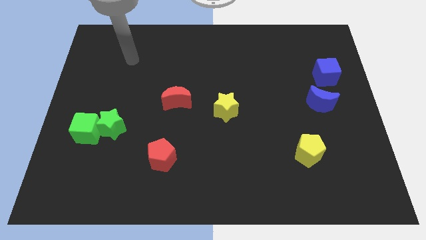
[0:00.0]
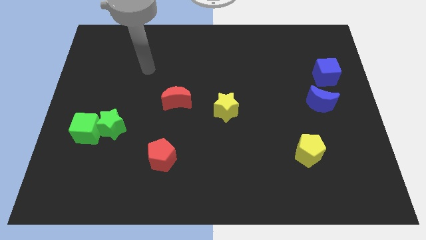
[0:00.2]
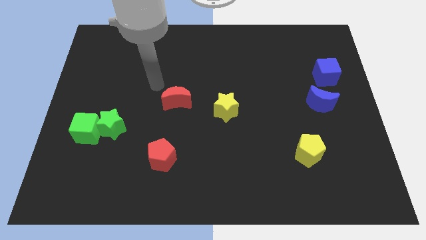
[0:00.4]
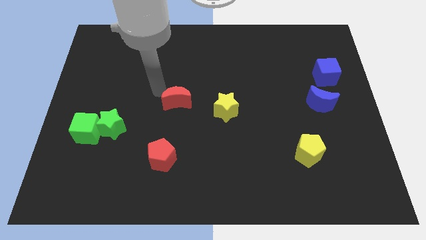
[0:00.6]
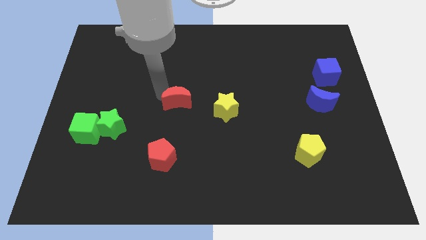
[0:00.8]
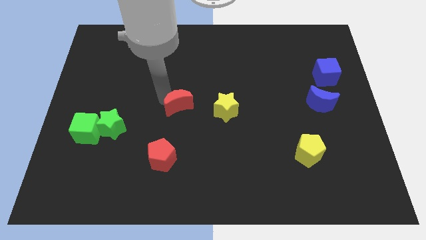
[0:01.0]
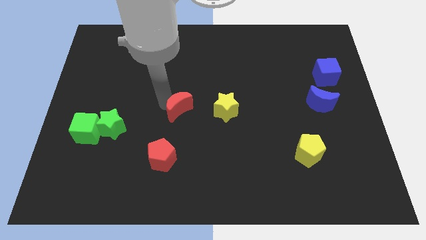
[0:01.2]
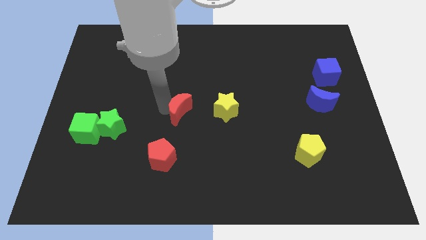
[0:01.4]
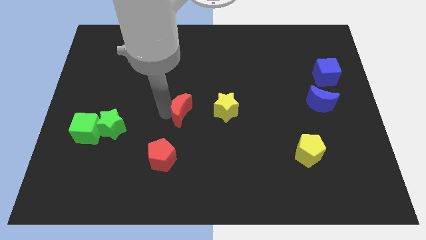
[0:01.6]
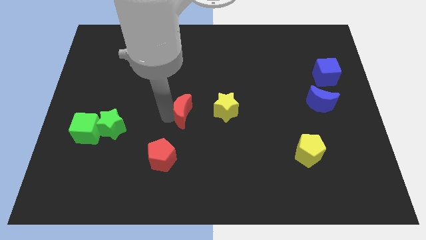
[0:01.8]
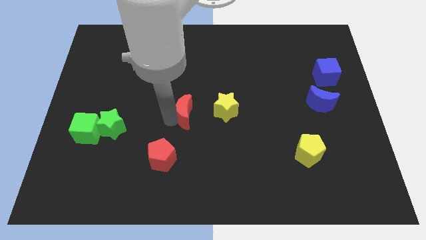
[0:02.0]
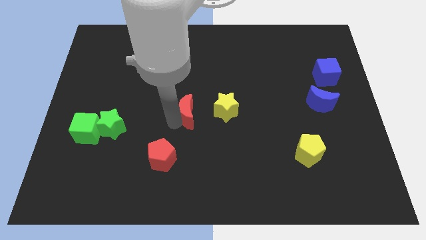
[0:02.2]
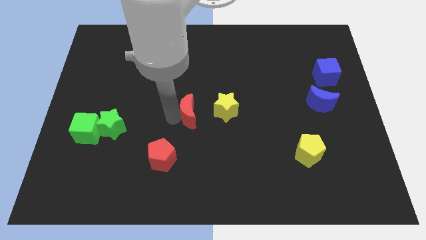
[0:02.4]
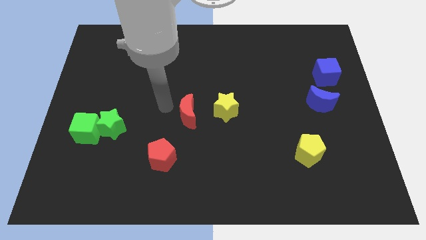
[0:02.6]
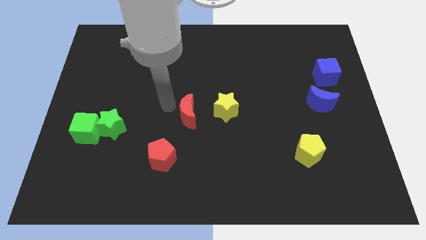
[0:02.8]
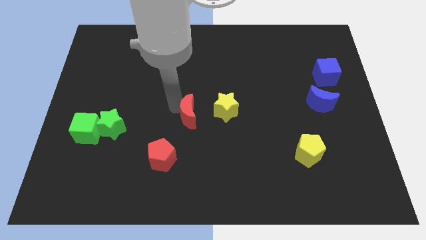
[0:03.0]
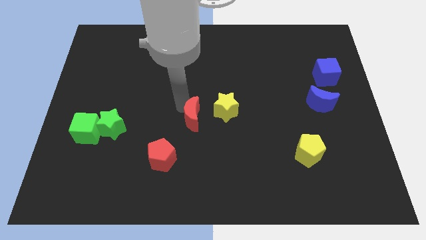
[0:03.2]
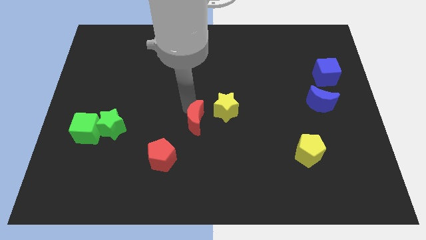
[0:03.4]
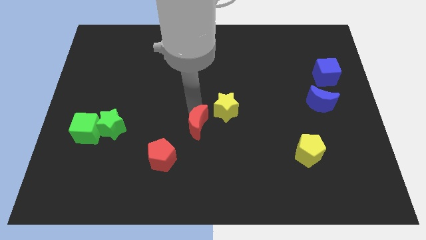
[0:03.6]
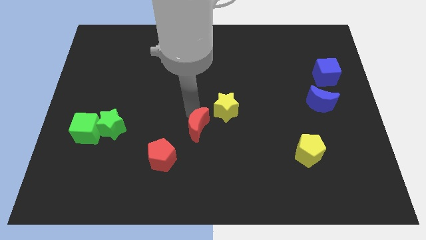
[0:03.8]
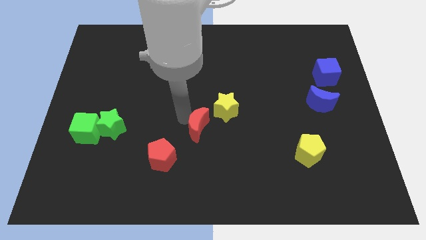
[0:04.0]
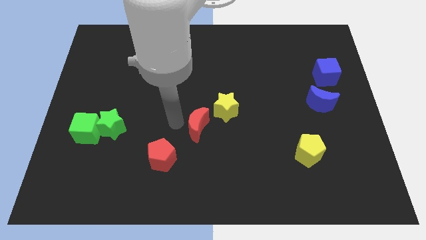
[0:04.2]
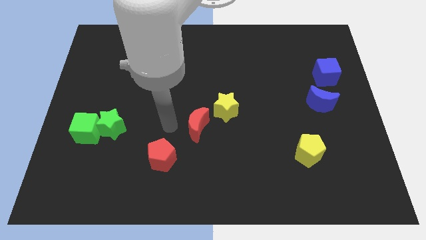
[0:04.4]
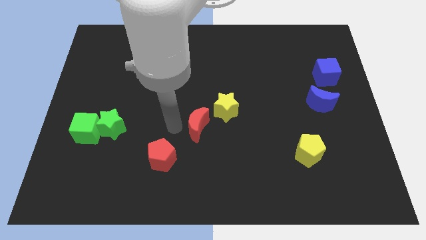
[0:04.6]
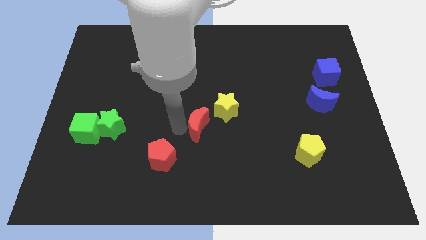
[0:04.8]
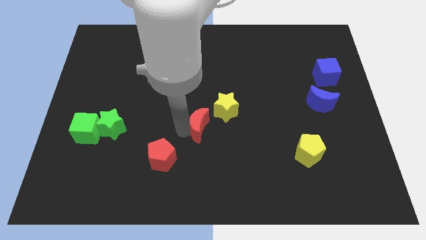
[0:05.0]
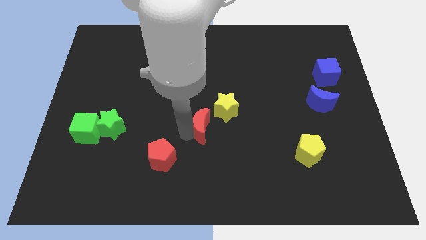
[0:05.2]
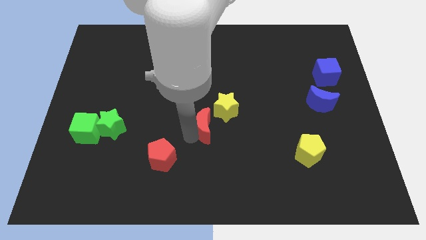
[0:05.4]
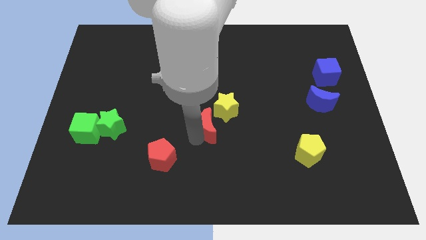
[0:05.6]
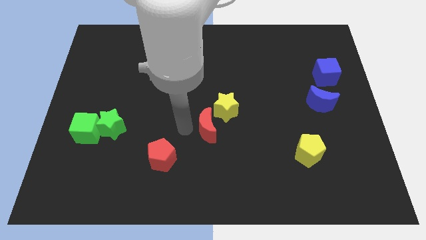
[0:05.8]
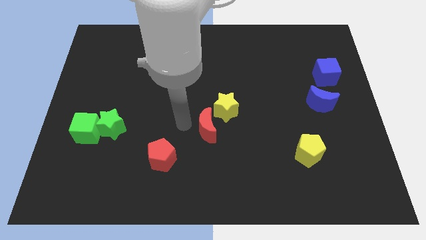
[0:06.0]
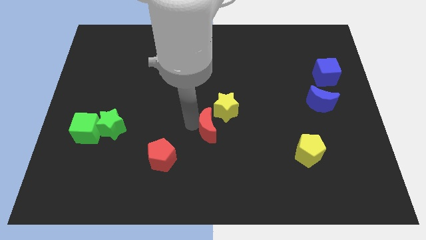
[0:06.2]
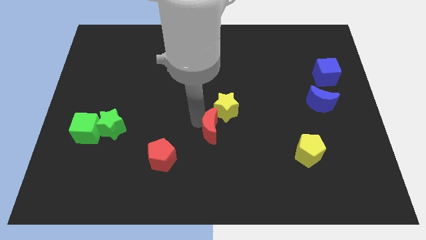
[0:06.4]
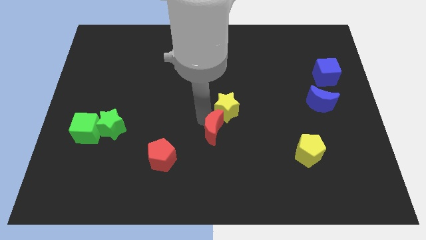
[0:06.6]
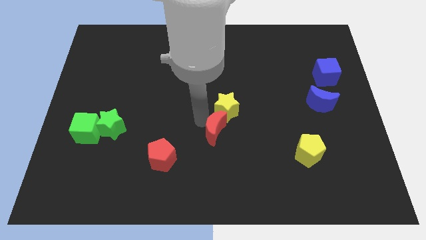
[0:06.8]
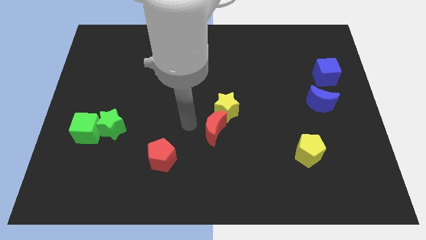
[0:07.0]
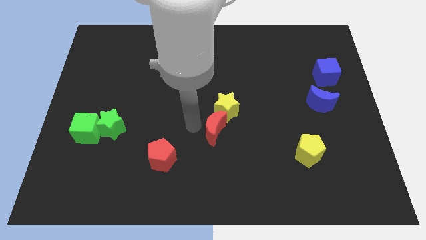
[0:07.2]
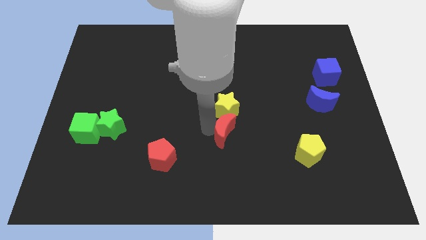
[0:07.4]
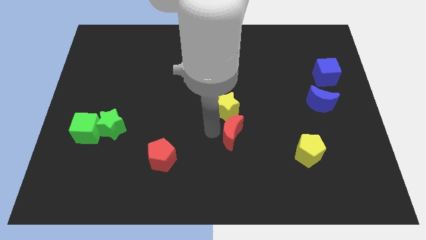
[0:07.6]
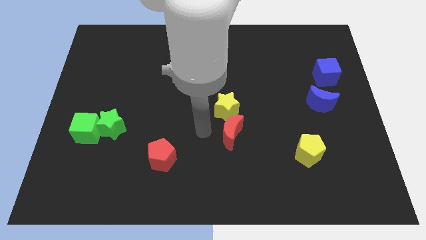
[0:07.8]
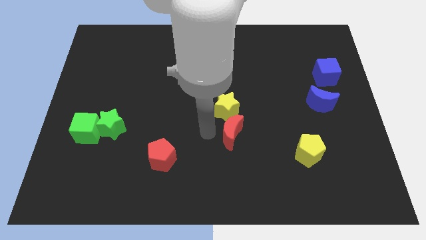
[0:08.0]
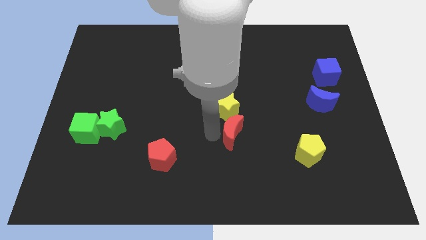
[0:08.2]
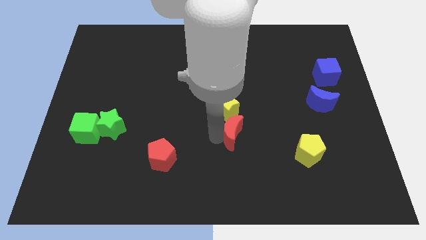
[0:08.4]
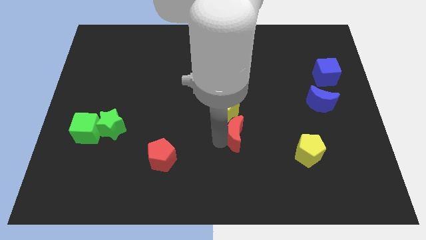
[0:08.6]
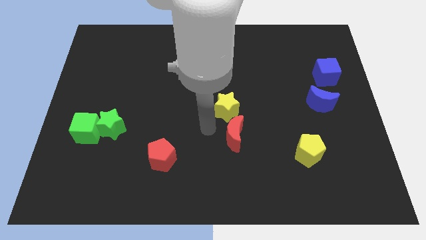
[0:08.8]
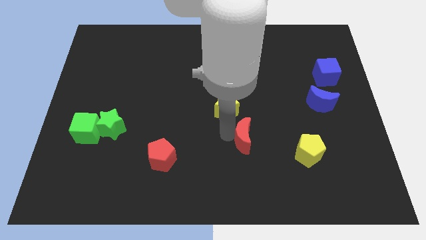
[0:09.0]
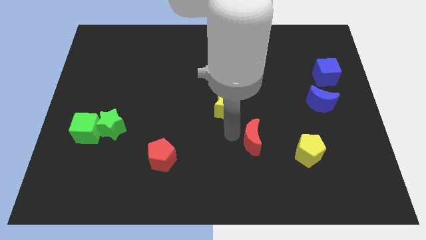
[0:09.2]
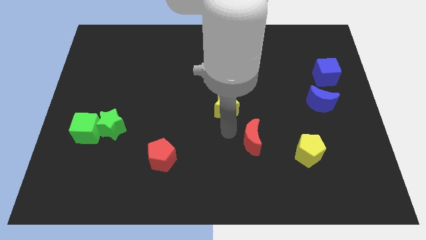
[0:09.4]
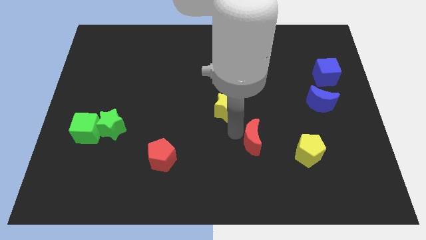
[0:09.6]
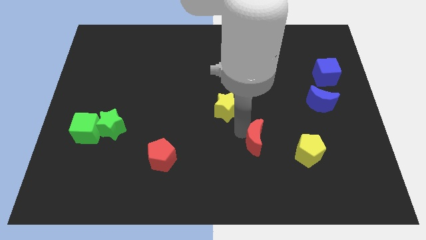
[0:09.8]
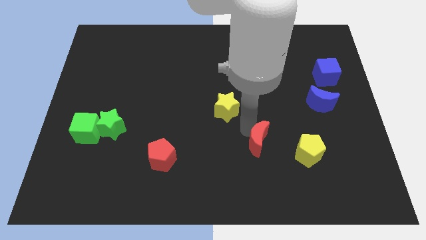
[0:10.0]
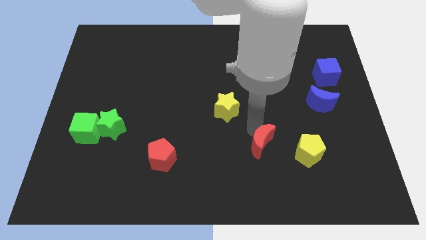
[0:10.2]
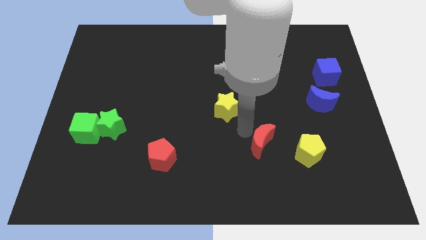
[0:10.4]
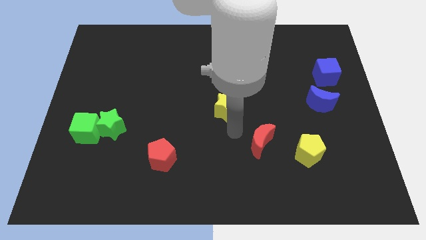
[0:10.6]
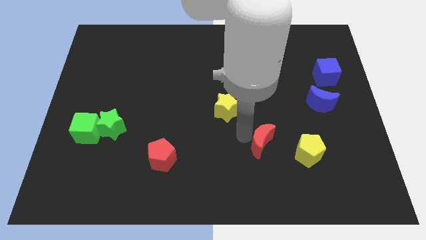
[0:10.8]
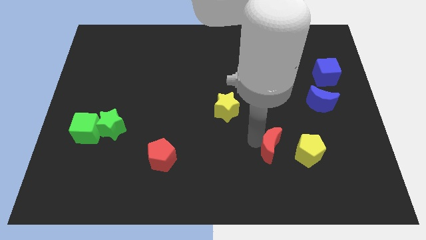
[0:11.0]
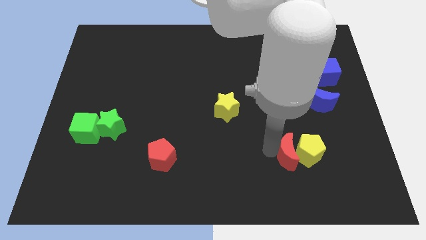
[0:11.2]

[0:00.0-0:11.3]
move the red moon towards the yellow pentagon

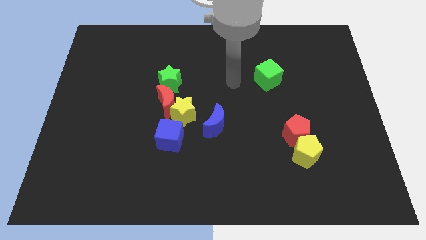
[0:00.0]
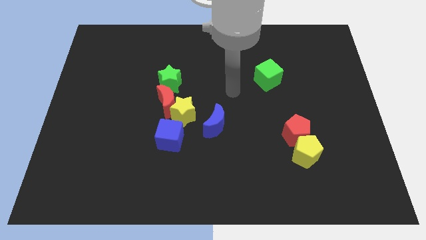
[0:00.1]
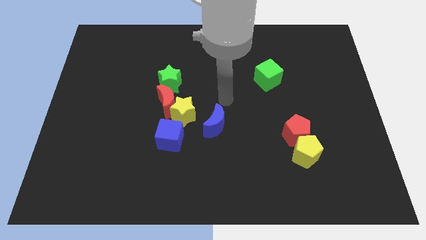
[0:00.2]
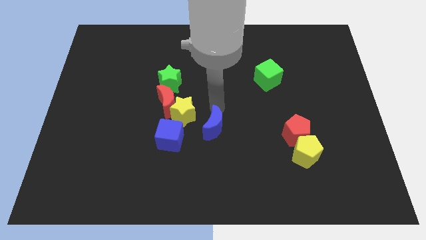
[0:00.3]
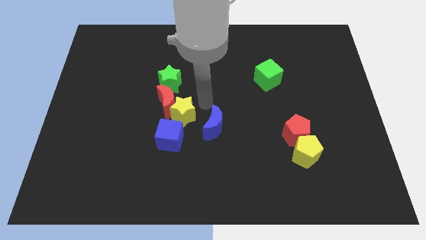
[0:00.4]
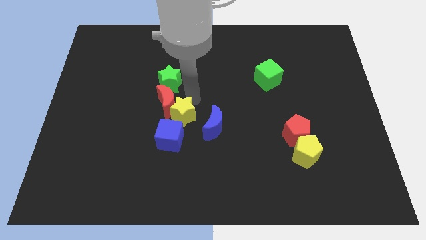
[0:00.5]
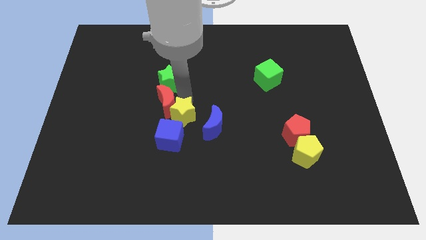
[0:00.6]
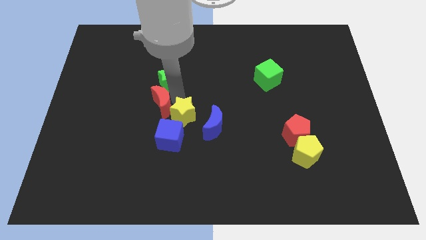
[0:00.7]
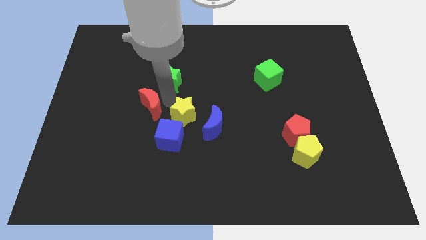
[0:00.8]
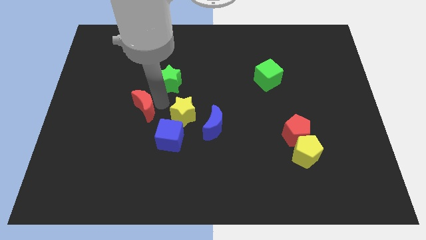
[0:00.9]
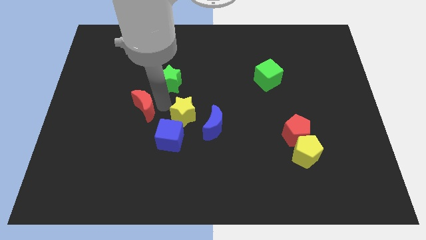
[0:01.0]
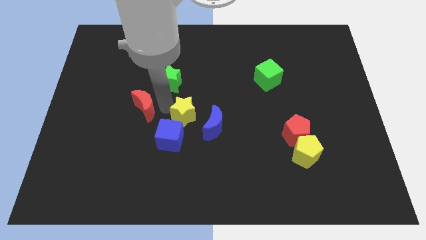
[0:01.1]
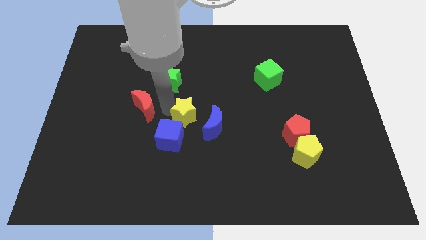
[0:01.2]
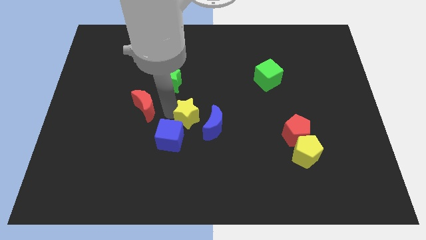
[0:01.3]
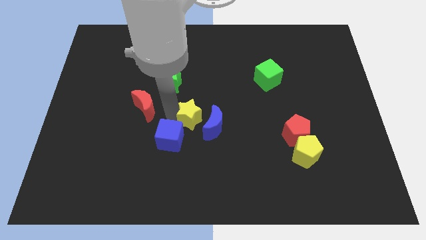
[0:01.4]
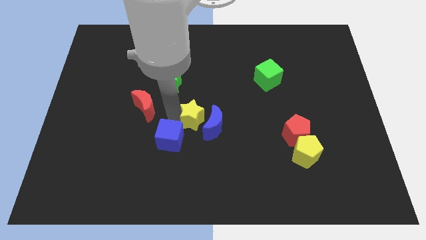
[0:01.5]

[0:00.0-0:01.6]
push the yellow star close to the blue moon
